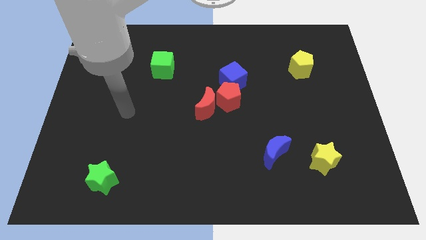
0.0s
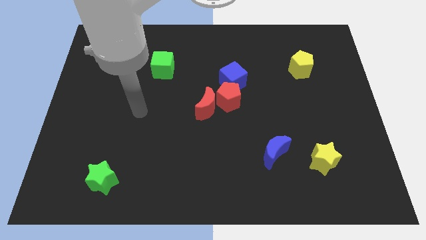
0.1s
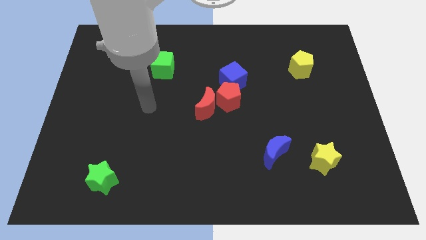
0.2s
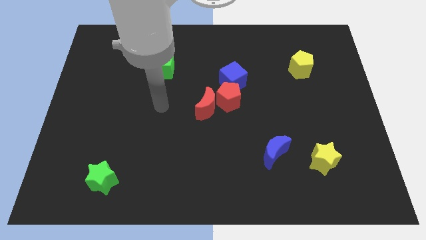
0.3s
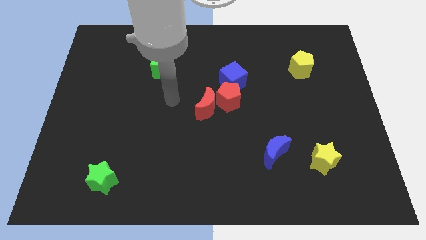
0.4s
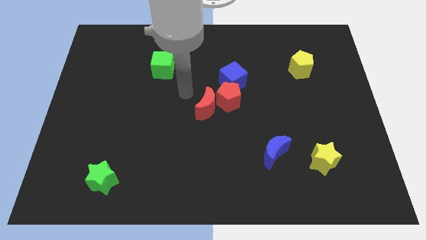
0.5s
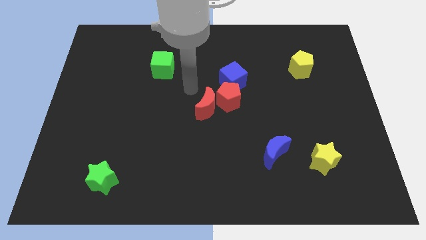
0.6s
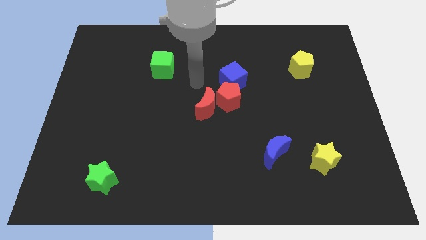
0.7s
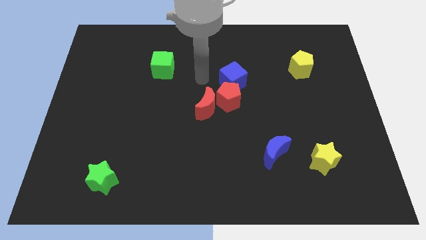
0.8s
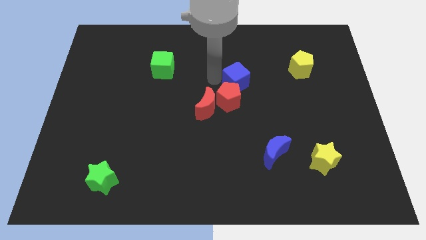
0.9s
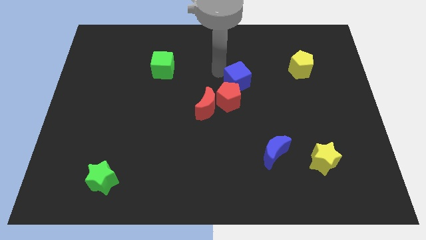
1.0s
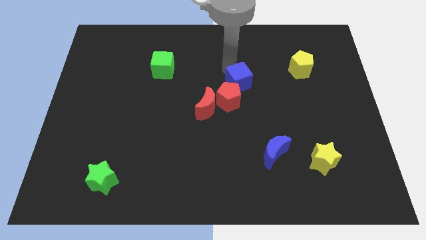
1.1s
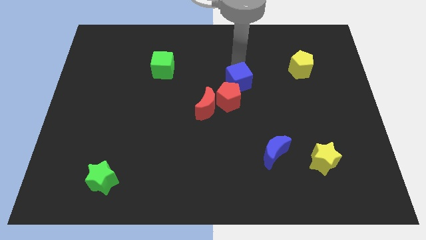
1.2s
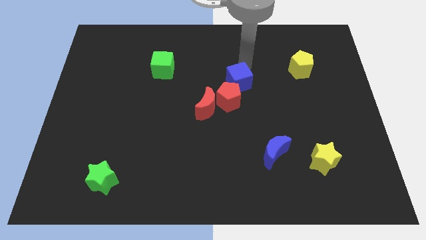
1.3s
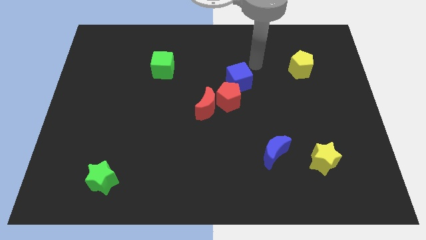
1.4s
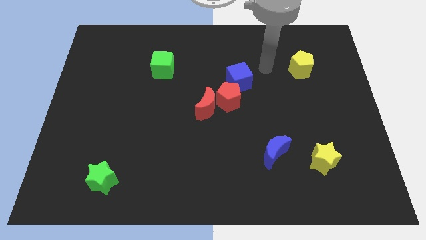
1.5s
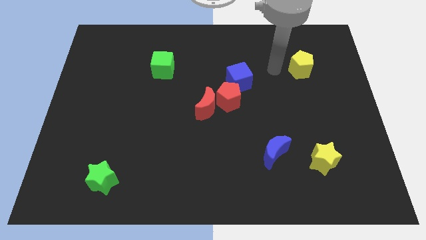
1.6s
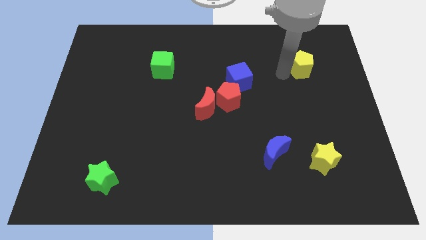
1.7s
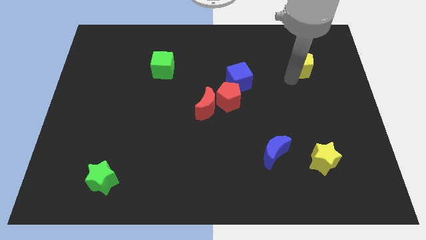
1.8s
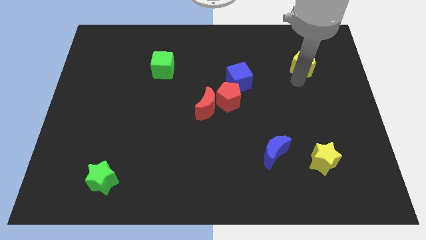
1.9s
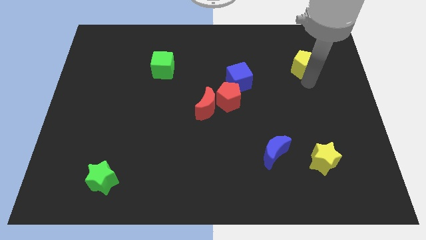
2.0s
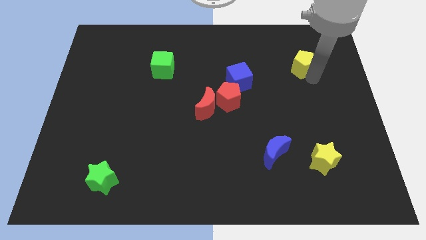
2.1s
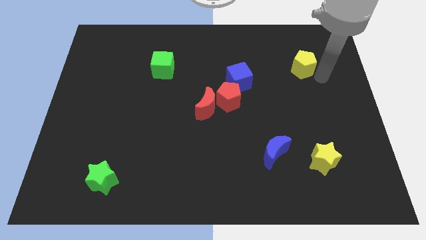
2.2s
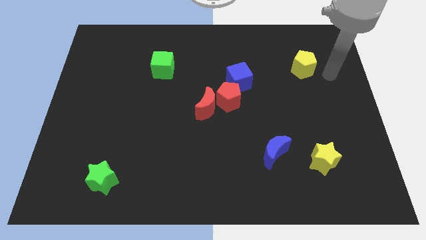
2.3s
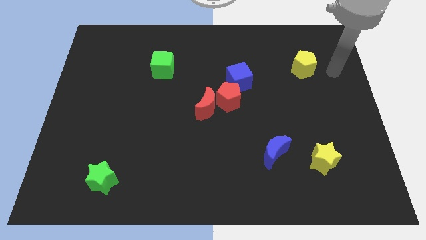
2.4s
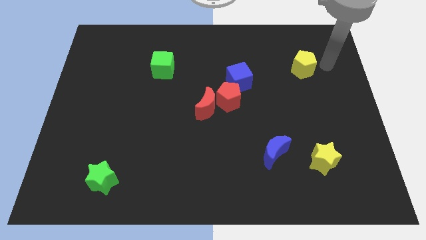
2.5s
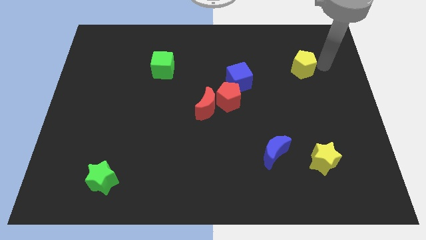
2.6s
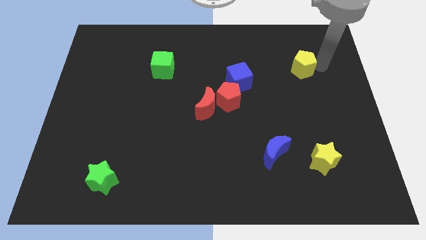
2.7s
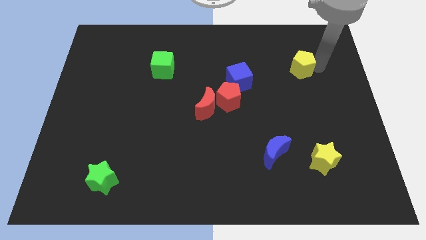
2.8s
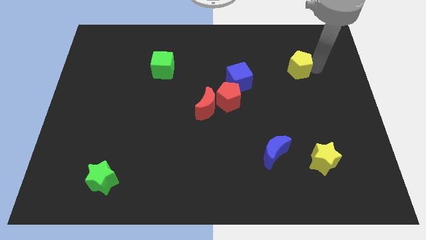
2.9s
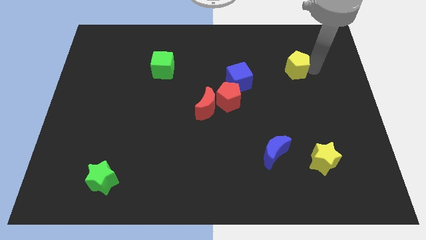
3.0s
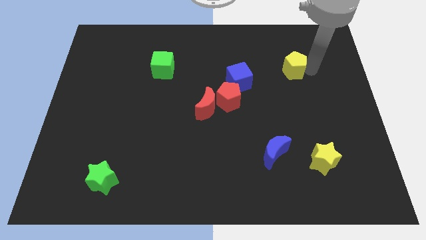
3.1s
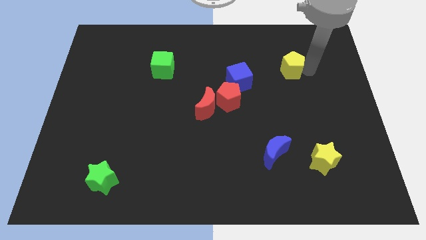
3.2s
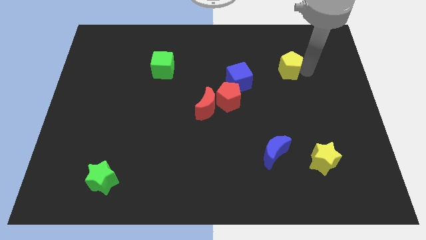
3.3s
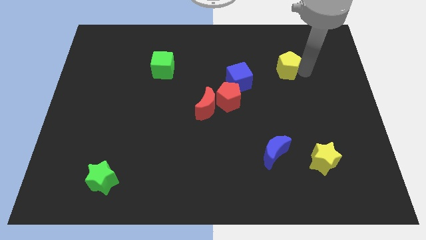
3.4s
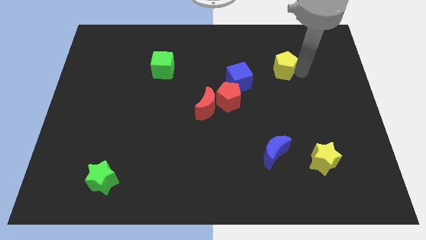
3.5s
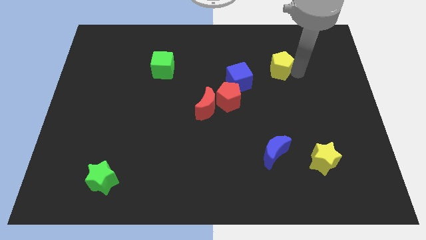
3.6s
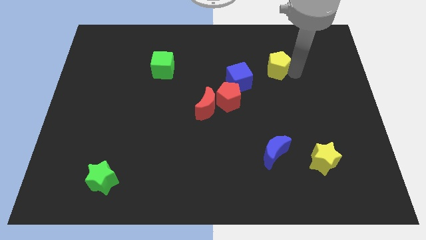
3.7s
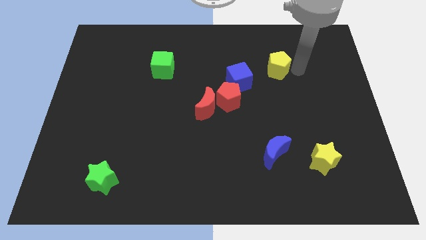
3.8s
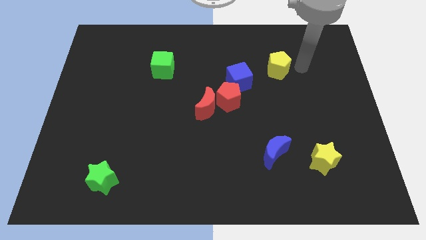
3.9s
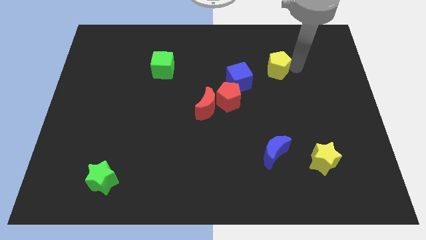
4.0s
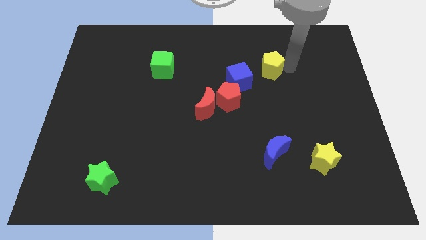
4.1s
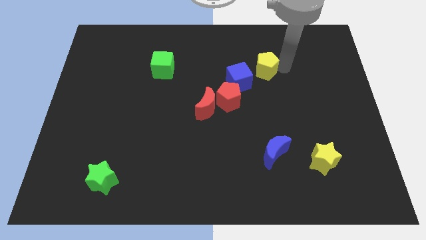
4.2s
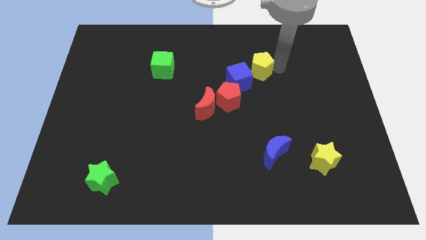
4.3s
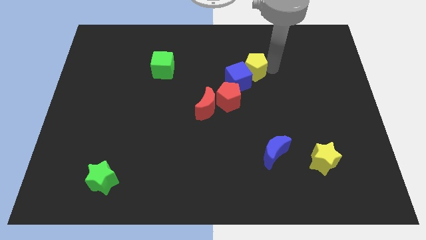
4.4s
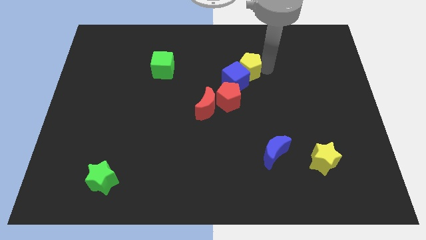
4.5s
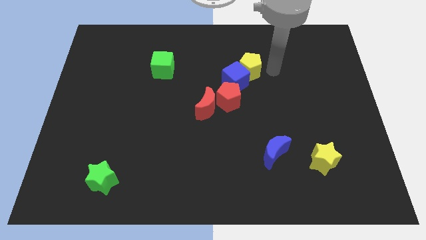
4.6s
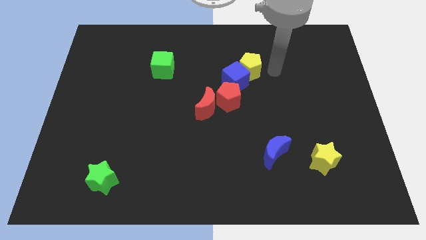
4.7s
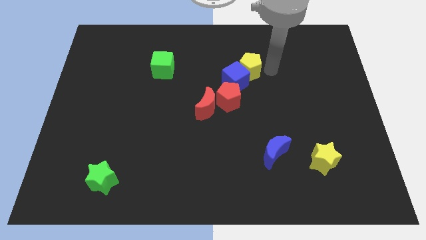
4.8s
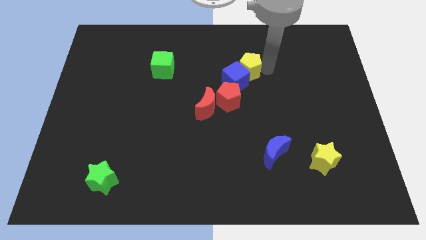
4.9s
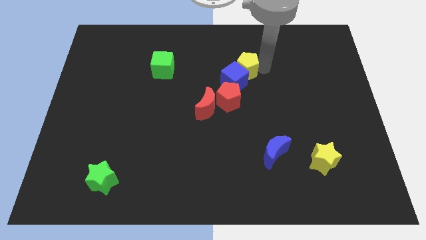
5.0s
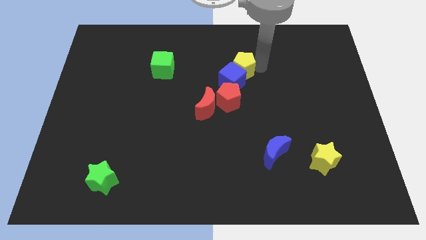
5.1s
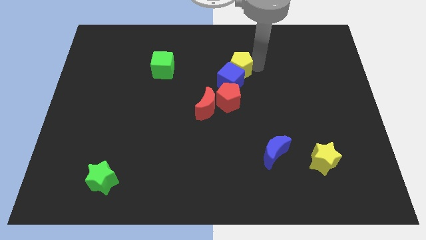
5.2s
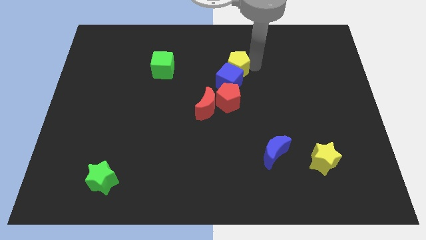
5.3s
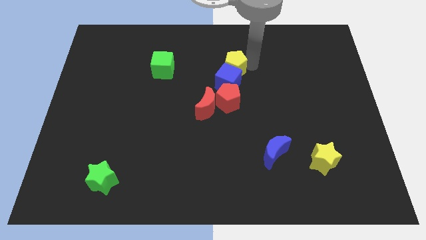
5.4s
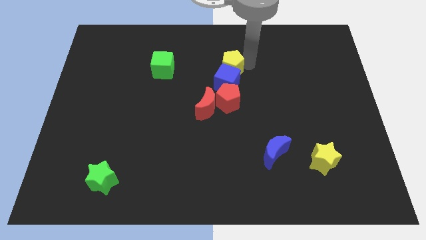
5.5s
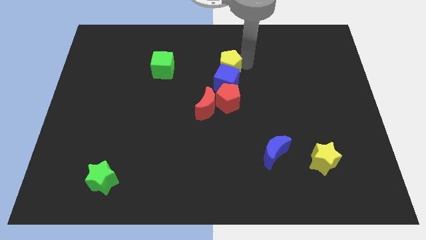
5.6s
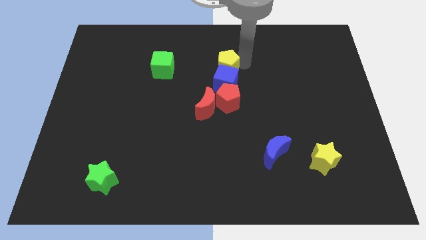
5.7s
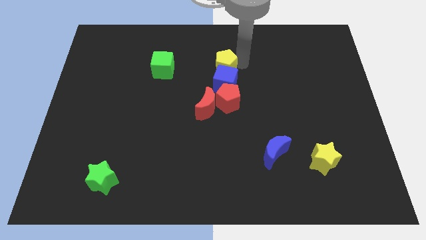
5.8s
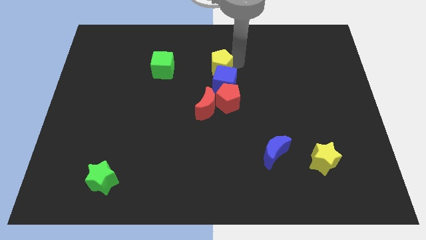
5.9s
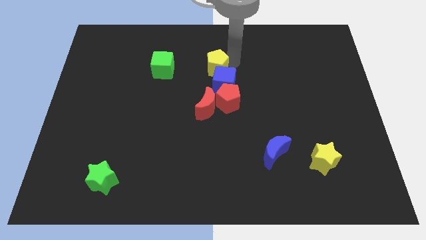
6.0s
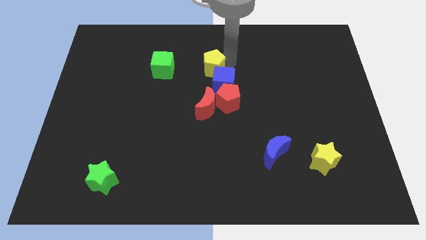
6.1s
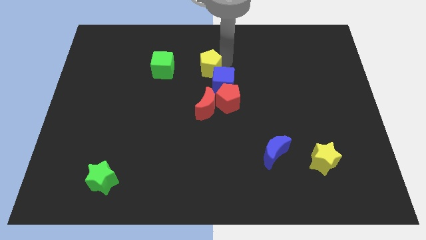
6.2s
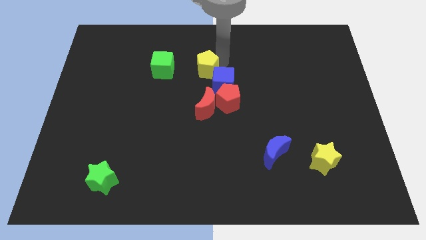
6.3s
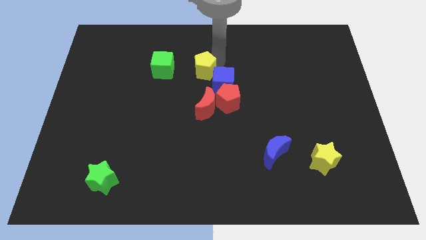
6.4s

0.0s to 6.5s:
slide the yellow pentagon to the left side of the blue cube

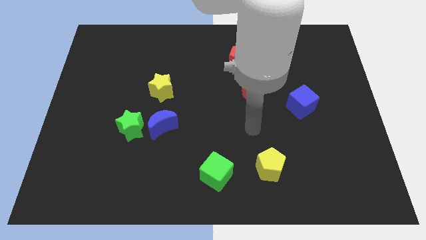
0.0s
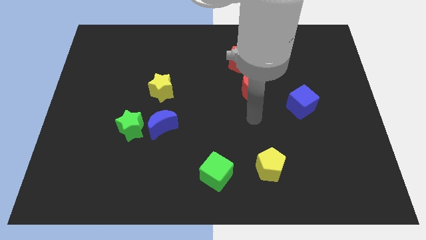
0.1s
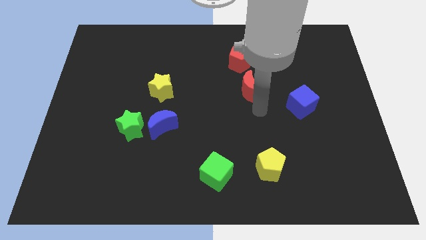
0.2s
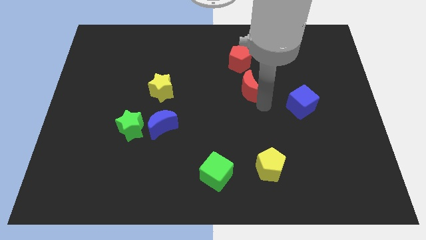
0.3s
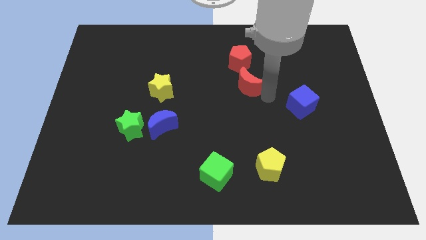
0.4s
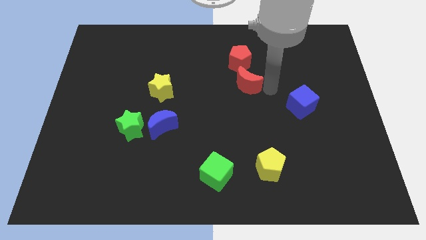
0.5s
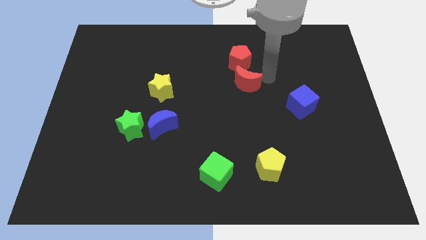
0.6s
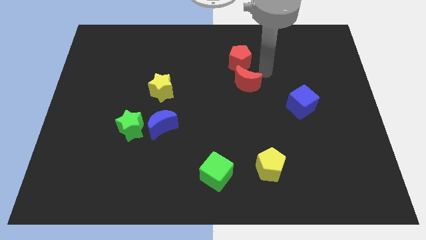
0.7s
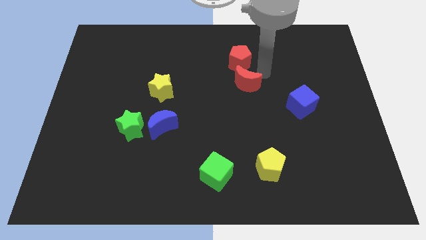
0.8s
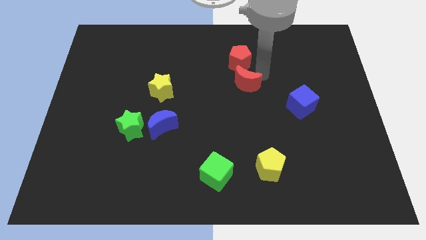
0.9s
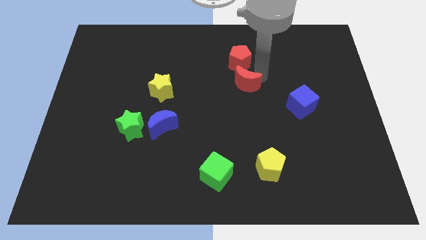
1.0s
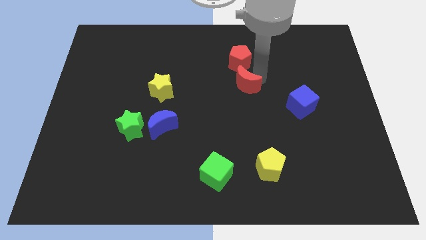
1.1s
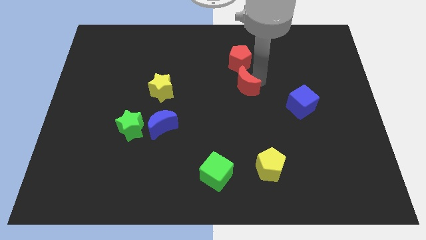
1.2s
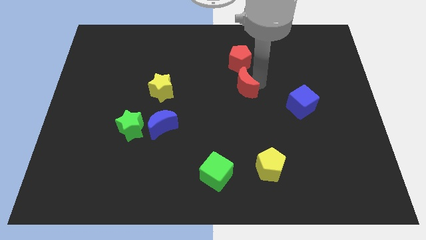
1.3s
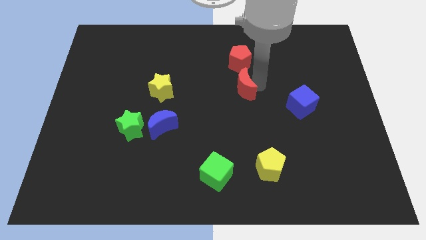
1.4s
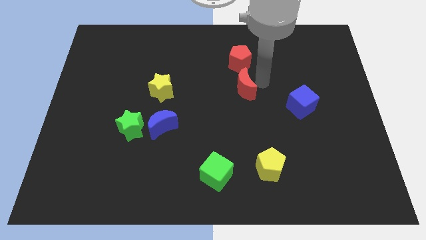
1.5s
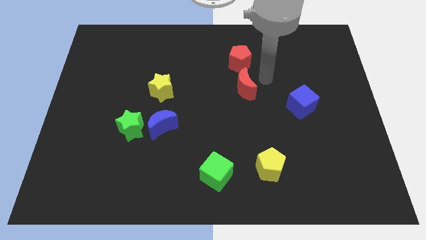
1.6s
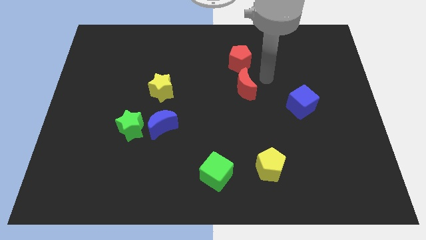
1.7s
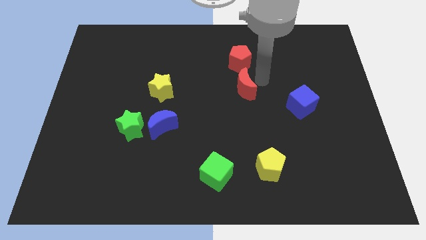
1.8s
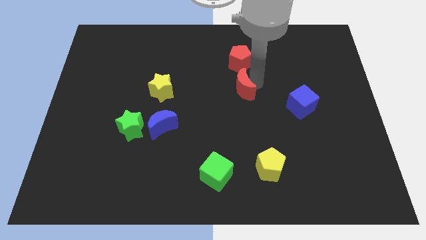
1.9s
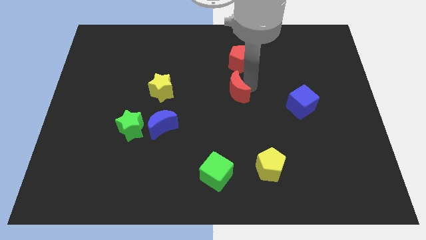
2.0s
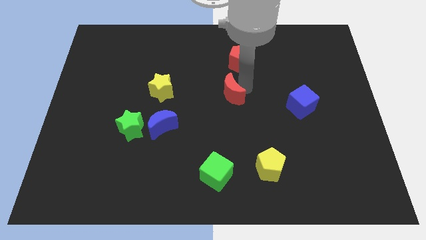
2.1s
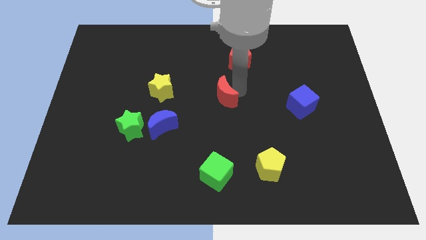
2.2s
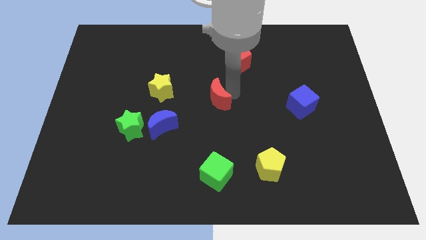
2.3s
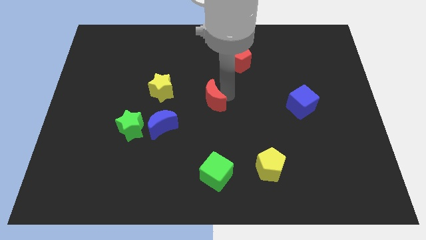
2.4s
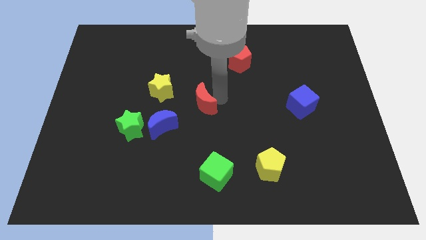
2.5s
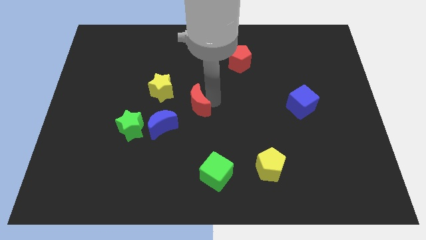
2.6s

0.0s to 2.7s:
move the red moon to the bottom right of the yellow star
